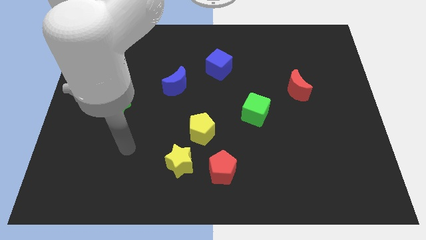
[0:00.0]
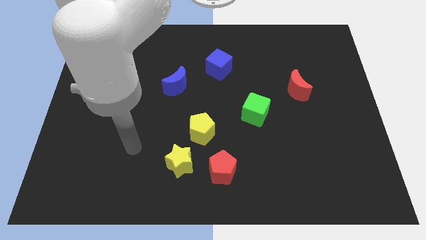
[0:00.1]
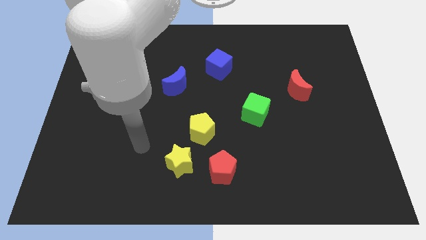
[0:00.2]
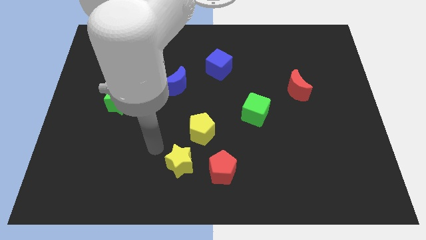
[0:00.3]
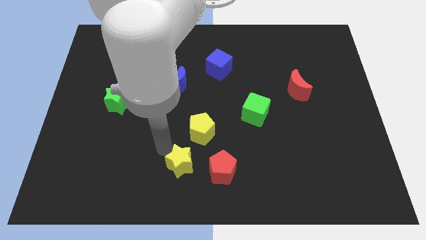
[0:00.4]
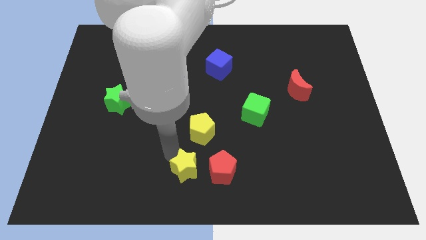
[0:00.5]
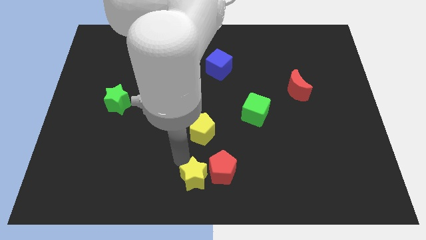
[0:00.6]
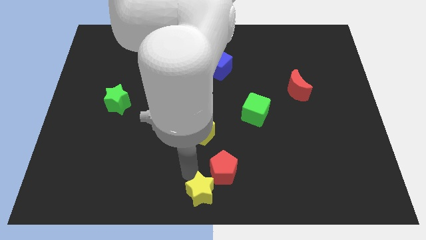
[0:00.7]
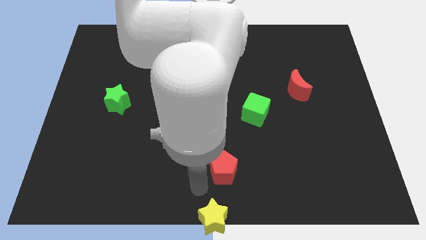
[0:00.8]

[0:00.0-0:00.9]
move the red pentagon away from the yellow star

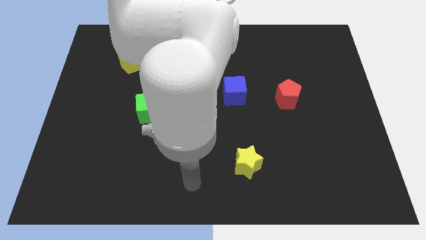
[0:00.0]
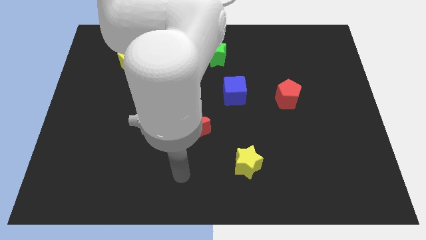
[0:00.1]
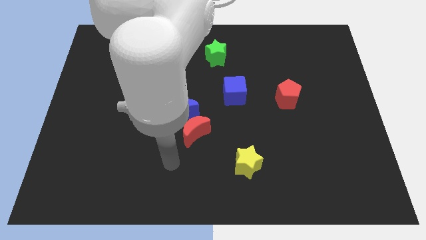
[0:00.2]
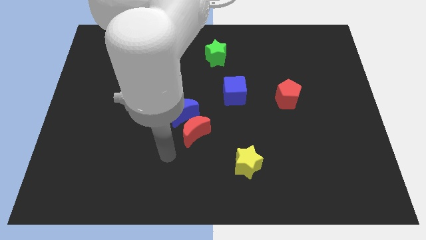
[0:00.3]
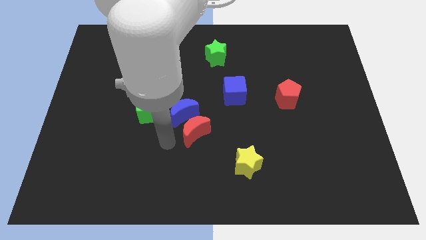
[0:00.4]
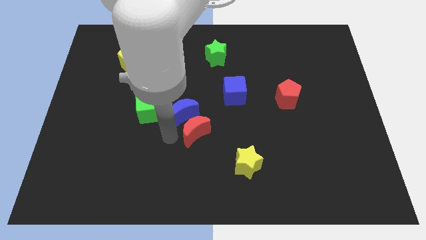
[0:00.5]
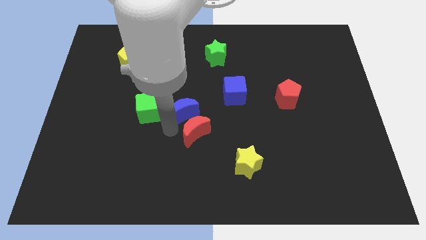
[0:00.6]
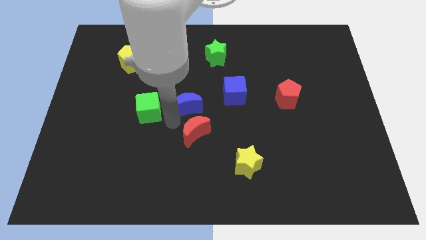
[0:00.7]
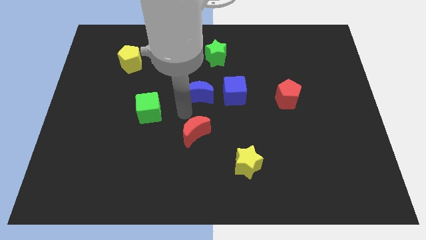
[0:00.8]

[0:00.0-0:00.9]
pull the red moon apart from the blue moon

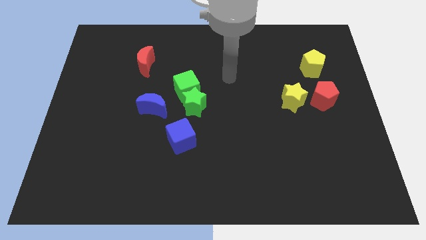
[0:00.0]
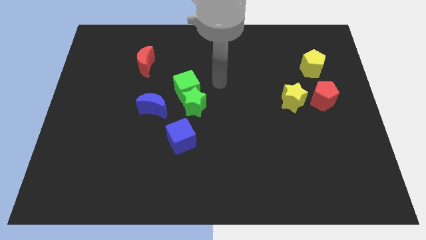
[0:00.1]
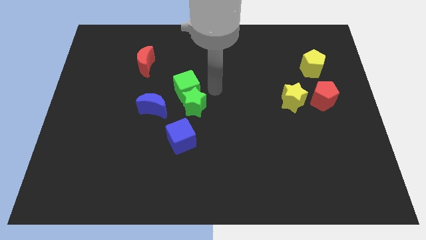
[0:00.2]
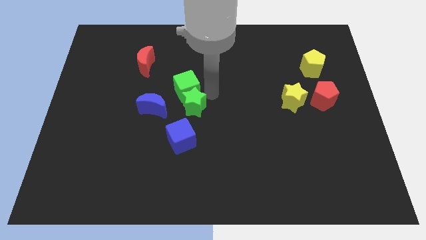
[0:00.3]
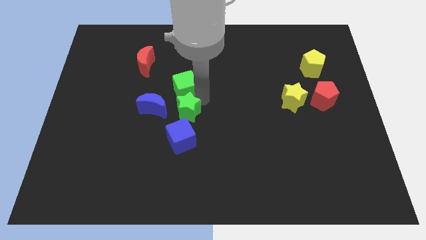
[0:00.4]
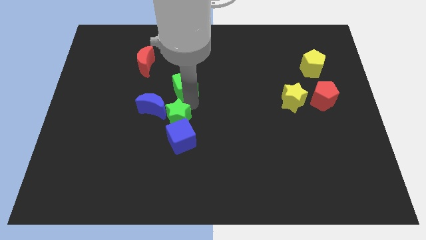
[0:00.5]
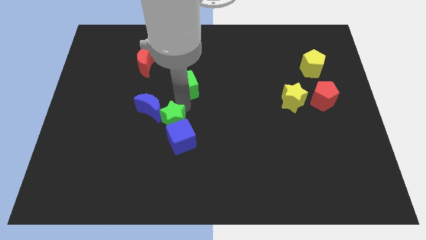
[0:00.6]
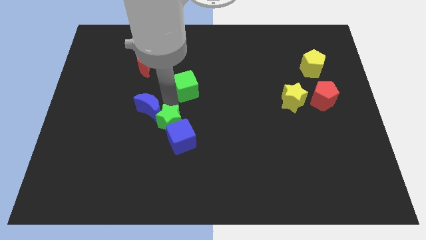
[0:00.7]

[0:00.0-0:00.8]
pull the green cube apart from the green star and blue moon

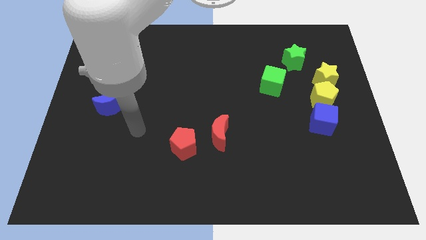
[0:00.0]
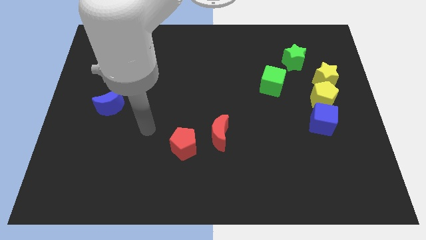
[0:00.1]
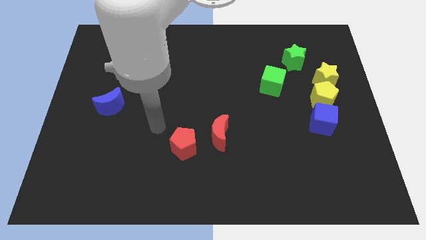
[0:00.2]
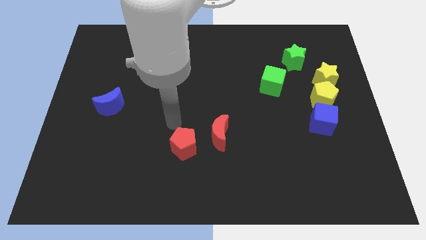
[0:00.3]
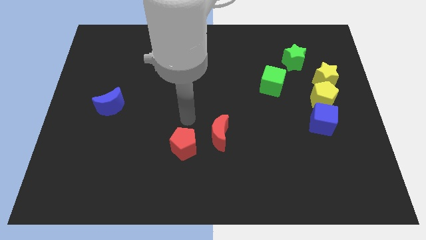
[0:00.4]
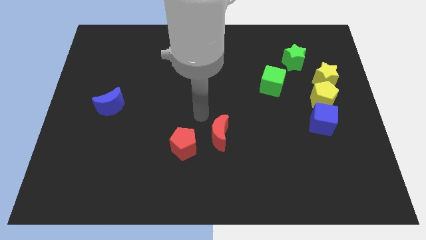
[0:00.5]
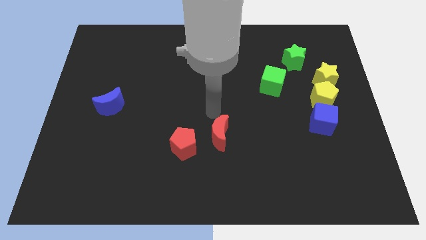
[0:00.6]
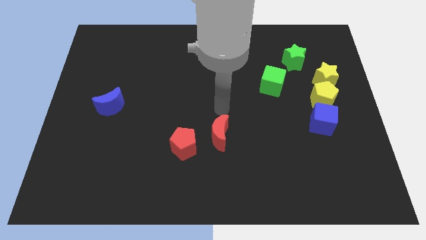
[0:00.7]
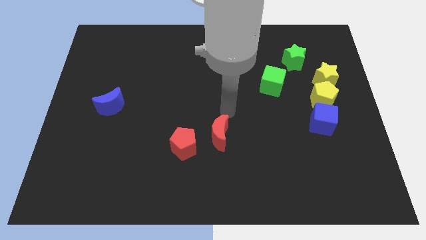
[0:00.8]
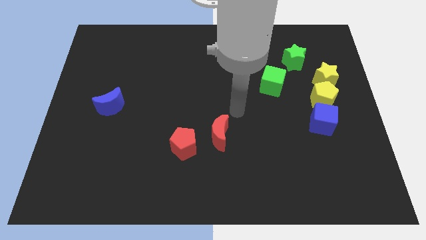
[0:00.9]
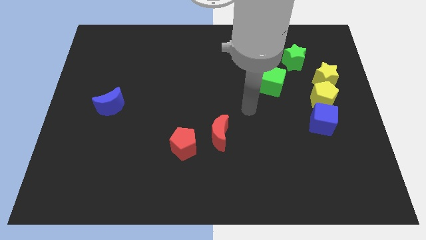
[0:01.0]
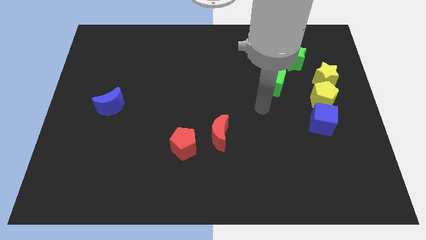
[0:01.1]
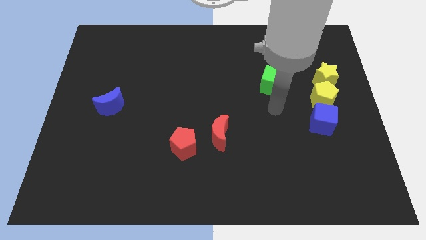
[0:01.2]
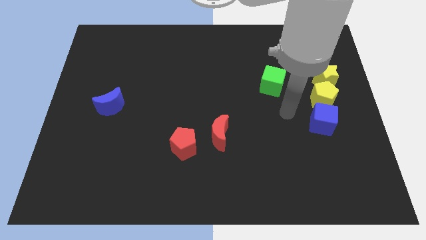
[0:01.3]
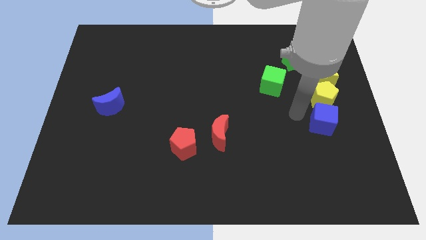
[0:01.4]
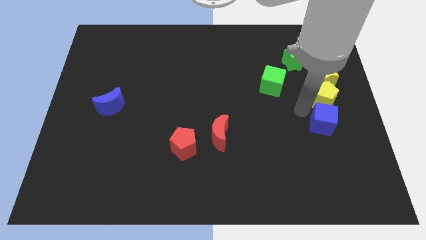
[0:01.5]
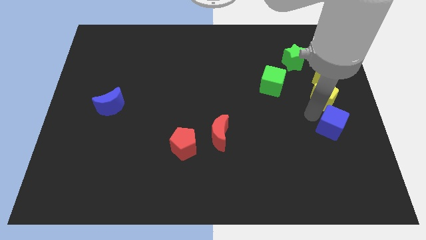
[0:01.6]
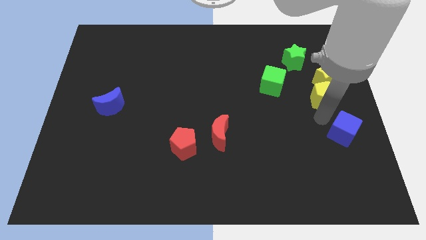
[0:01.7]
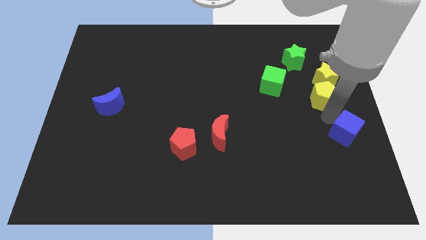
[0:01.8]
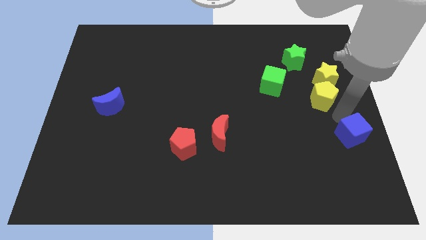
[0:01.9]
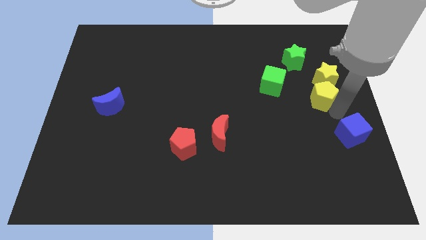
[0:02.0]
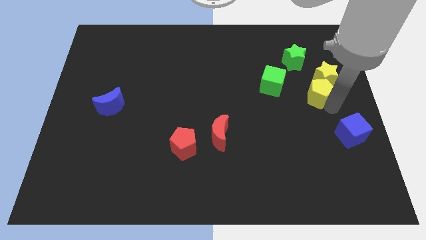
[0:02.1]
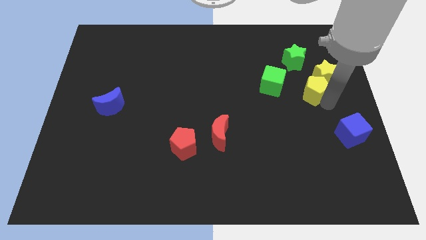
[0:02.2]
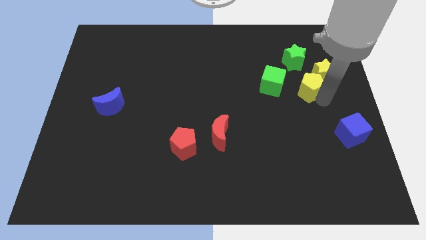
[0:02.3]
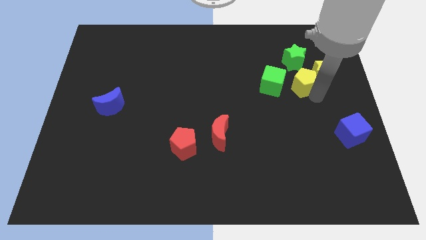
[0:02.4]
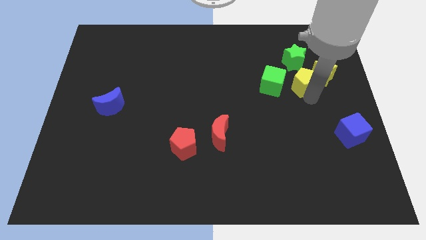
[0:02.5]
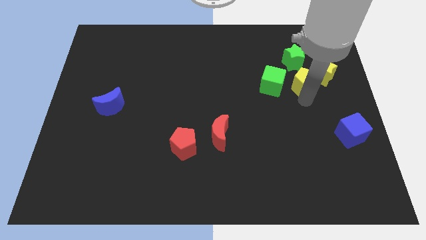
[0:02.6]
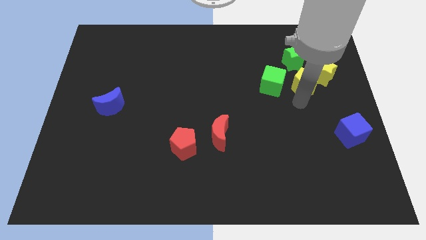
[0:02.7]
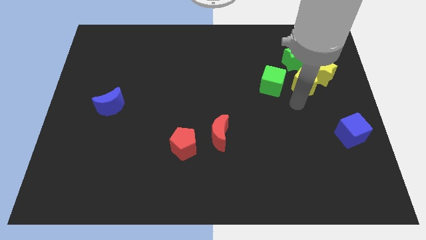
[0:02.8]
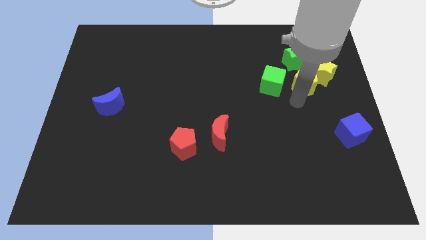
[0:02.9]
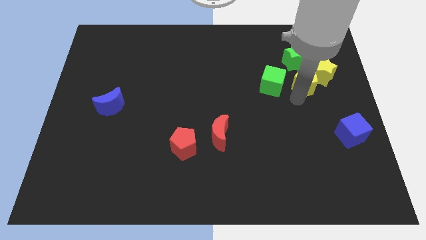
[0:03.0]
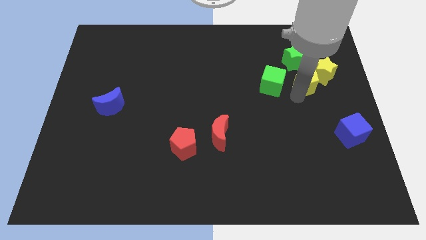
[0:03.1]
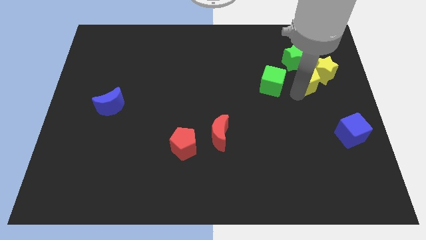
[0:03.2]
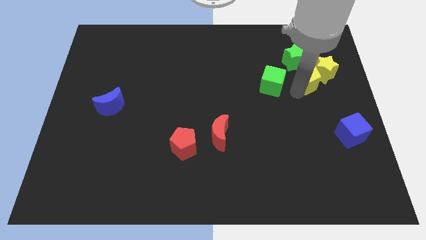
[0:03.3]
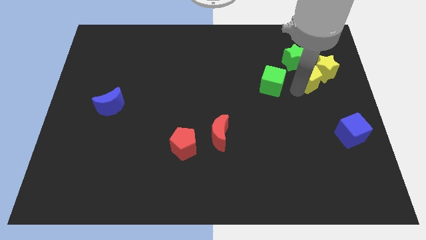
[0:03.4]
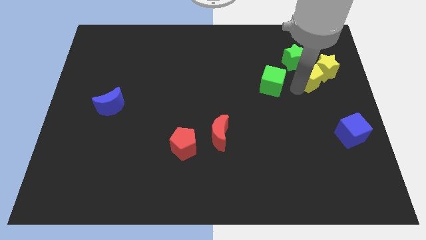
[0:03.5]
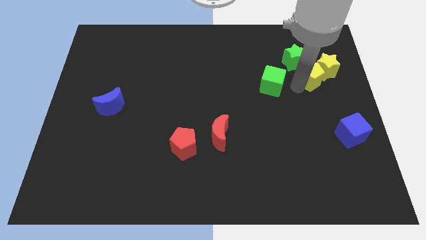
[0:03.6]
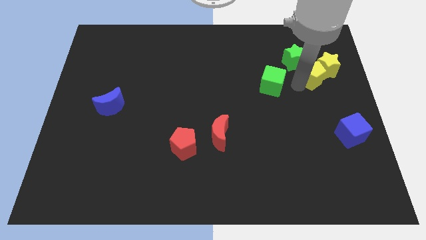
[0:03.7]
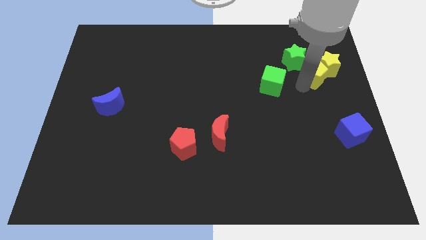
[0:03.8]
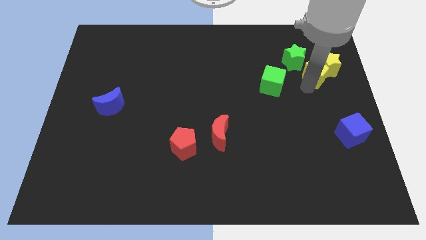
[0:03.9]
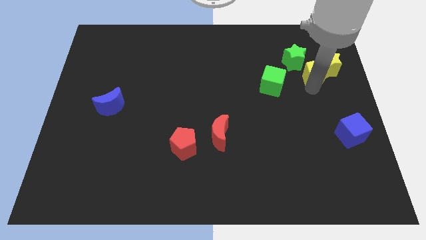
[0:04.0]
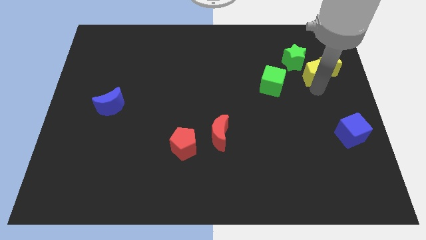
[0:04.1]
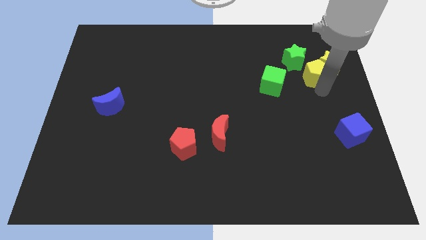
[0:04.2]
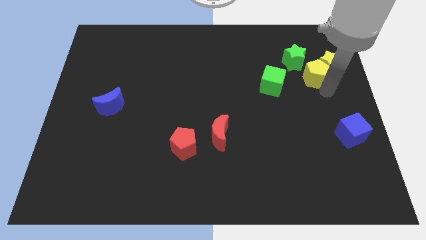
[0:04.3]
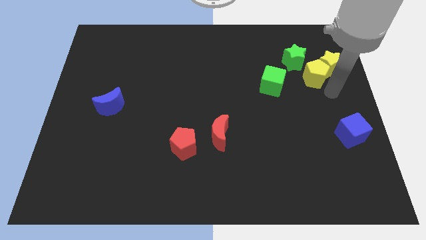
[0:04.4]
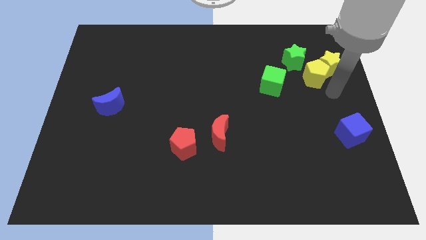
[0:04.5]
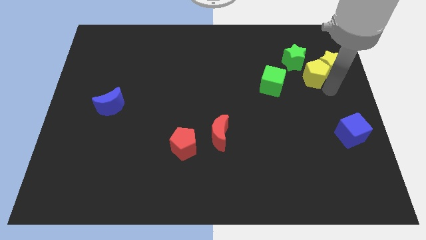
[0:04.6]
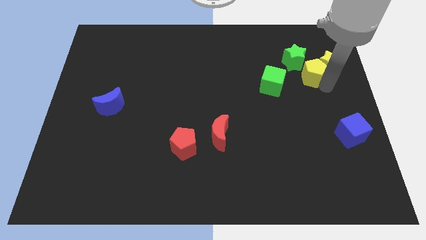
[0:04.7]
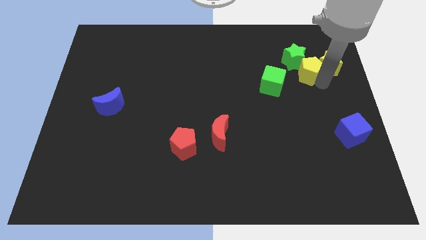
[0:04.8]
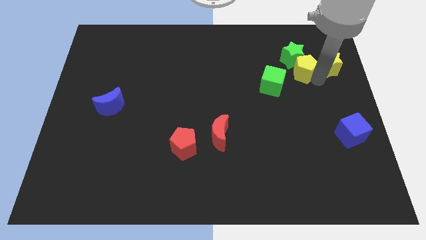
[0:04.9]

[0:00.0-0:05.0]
separate the yellow pentagon from the yellow star and blue cube

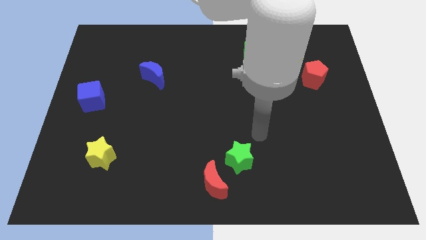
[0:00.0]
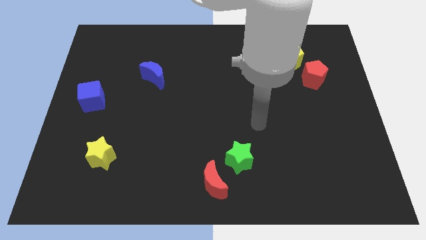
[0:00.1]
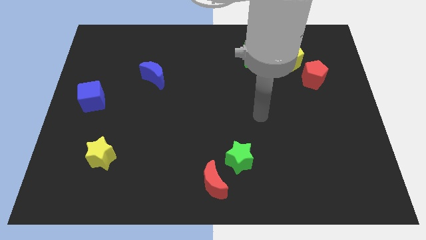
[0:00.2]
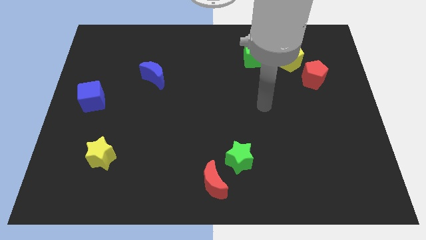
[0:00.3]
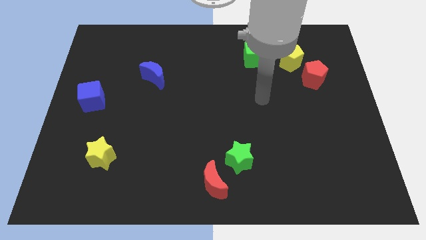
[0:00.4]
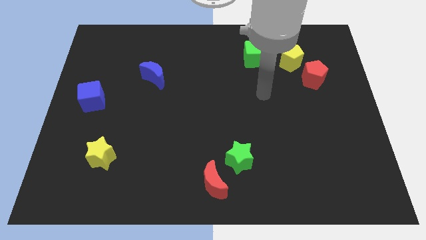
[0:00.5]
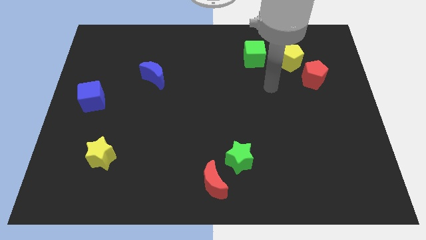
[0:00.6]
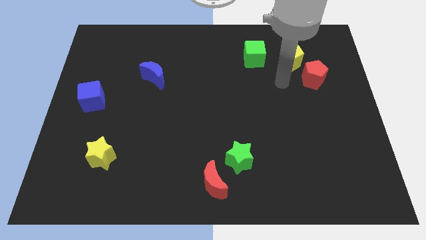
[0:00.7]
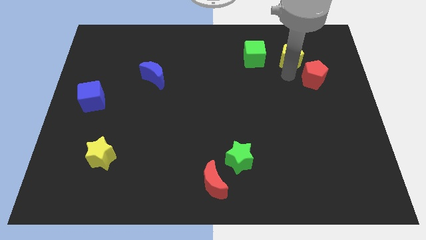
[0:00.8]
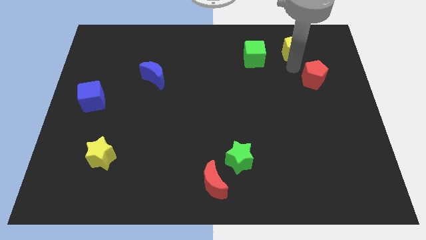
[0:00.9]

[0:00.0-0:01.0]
separate the red pentagon from the yellow pentagon

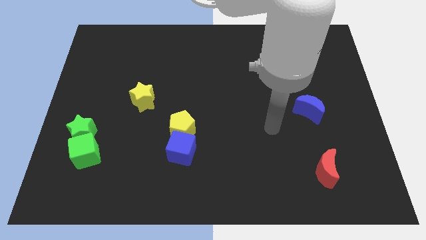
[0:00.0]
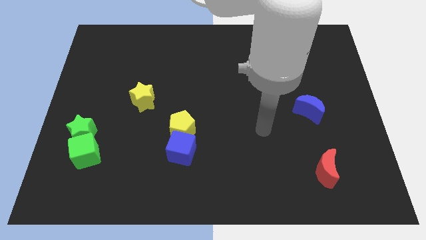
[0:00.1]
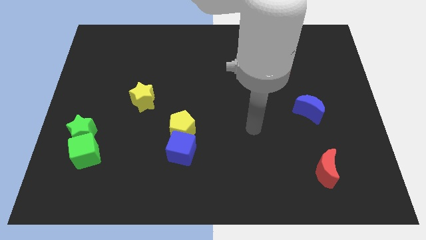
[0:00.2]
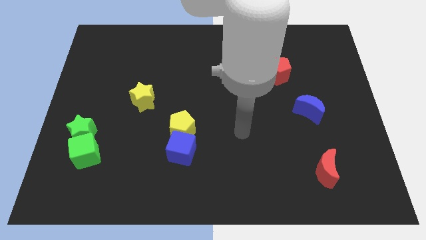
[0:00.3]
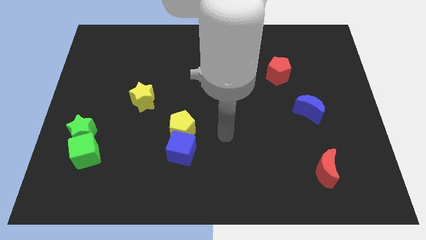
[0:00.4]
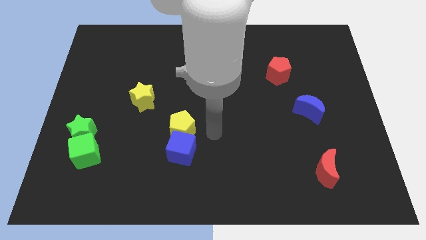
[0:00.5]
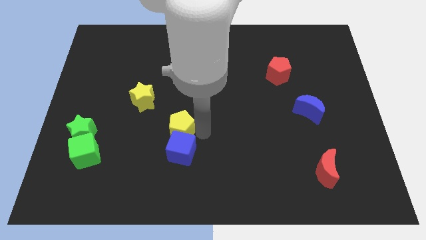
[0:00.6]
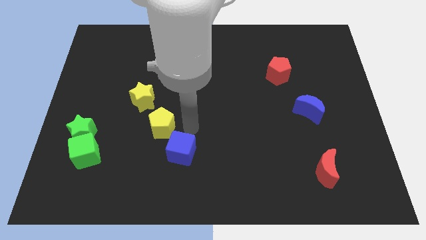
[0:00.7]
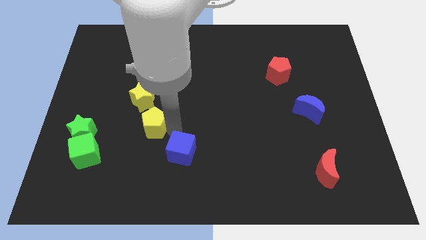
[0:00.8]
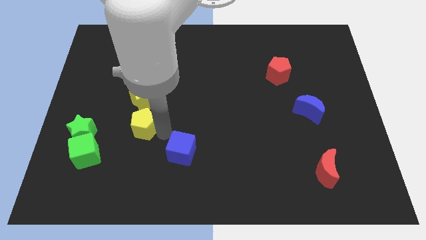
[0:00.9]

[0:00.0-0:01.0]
pull the blue cube apart from the yellow pentagon
